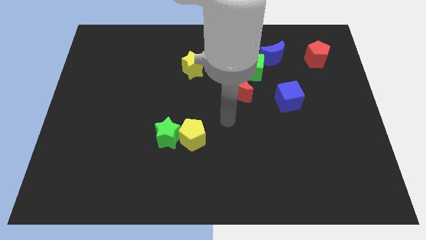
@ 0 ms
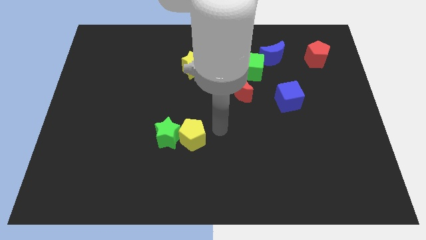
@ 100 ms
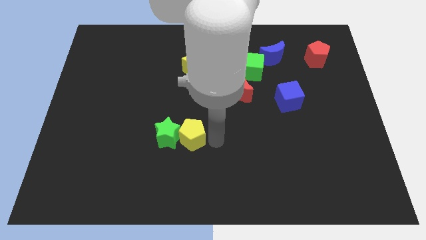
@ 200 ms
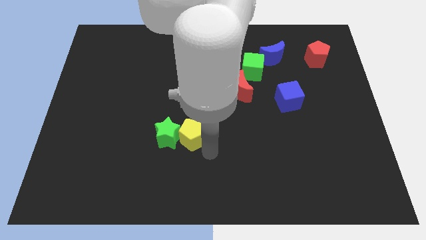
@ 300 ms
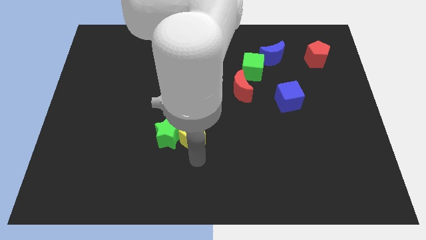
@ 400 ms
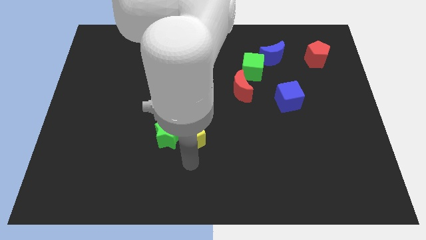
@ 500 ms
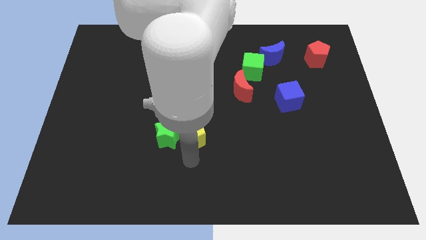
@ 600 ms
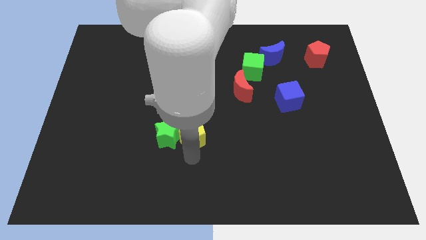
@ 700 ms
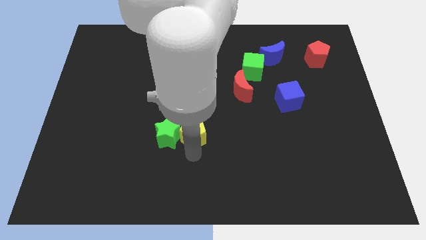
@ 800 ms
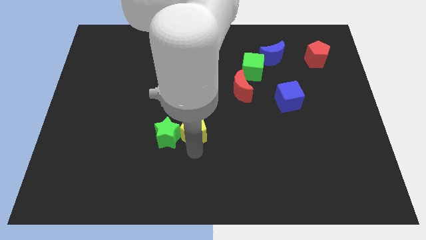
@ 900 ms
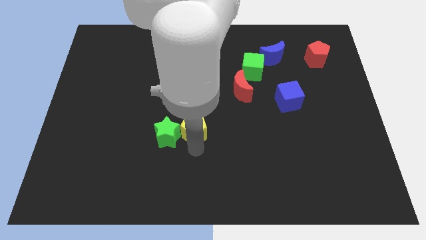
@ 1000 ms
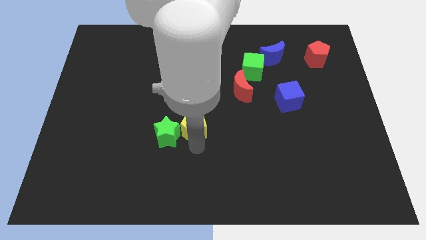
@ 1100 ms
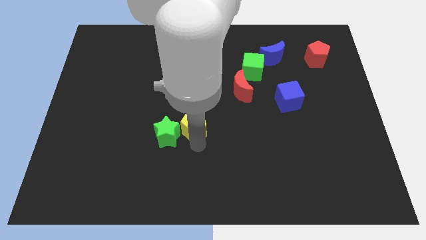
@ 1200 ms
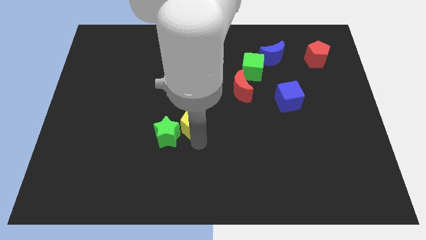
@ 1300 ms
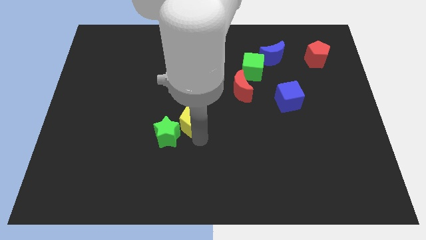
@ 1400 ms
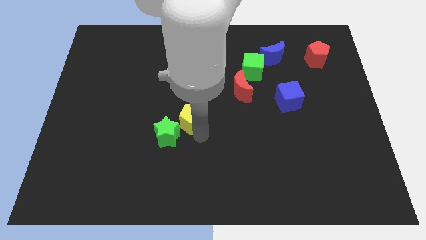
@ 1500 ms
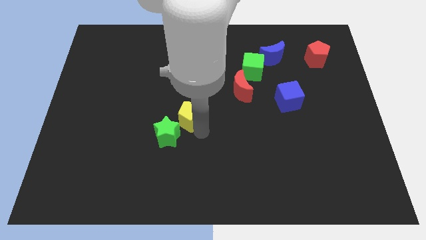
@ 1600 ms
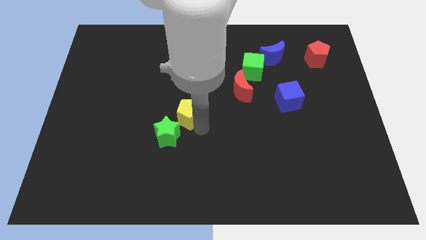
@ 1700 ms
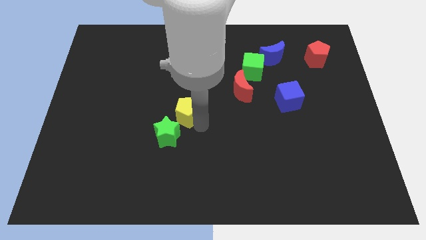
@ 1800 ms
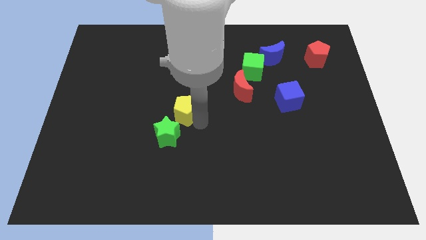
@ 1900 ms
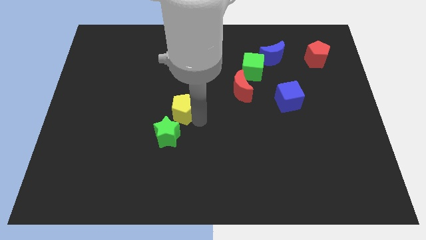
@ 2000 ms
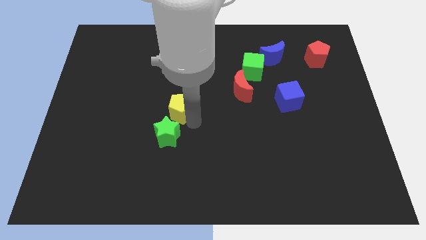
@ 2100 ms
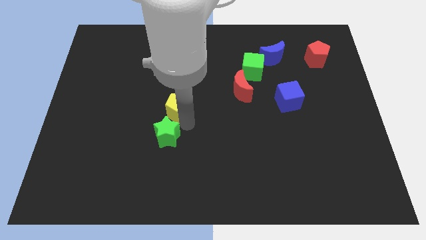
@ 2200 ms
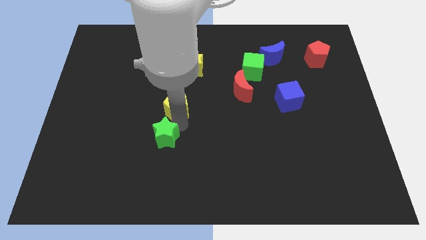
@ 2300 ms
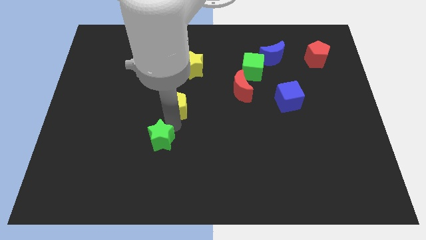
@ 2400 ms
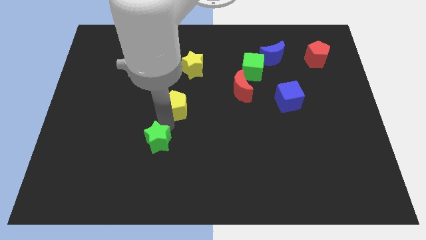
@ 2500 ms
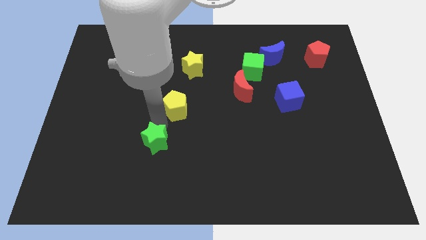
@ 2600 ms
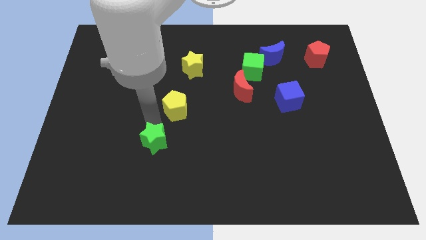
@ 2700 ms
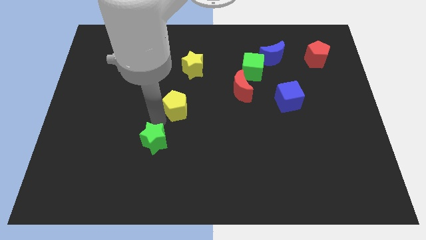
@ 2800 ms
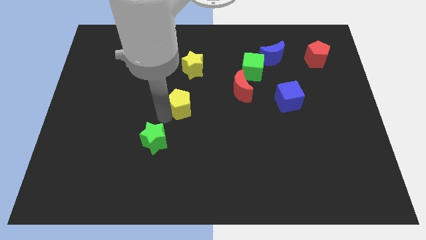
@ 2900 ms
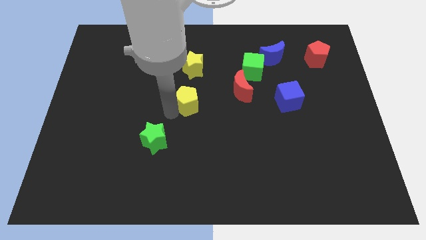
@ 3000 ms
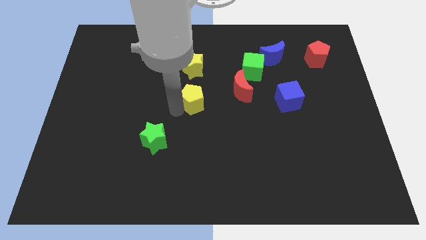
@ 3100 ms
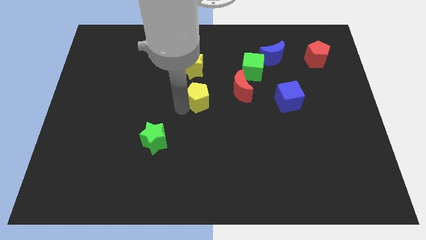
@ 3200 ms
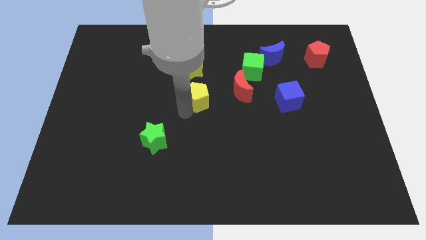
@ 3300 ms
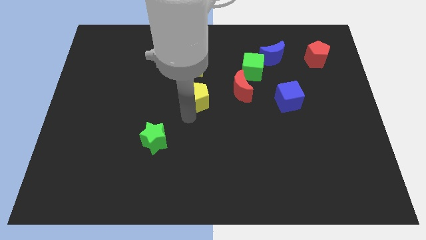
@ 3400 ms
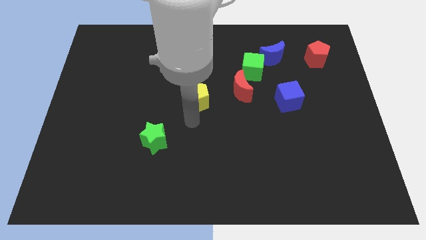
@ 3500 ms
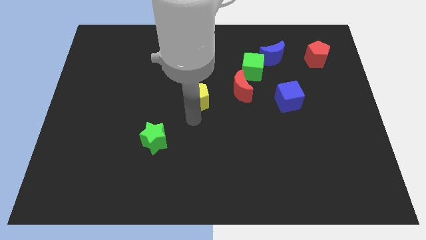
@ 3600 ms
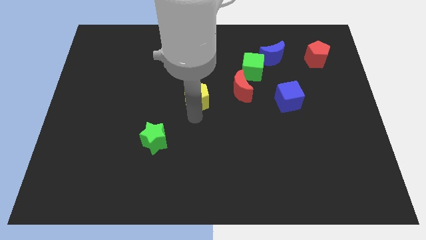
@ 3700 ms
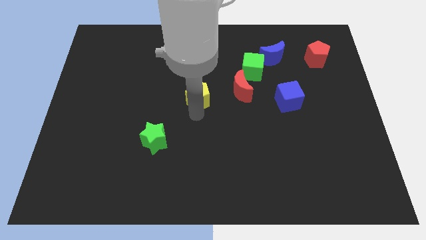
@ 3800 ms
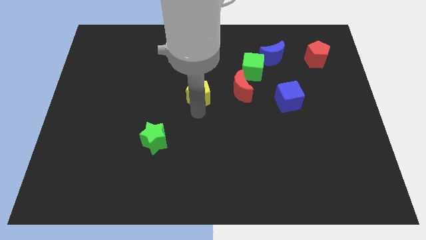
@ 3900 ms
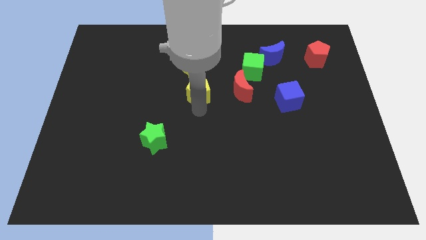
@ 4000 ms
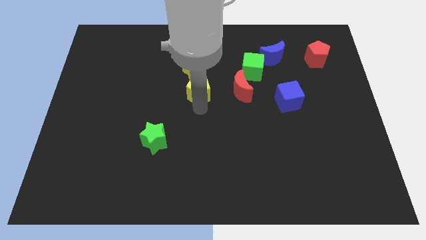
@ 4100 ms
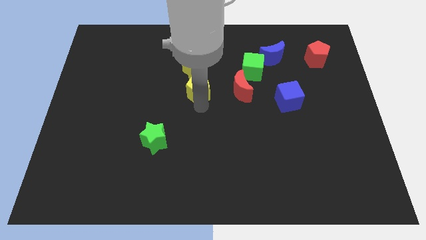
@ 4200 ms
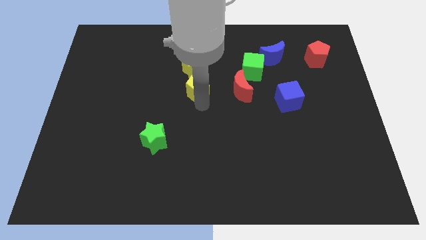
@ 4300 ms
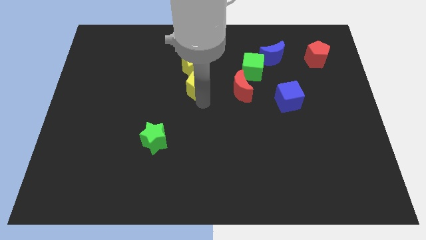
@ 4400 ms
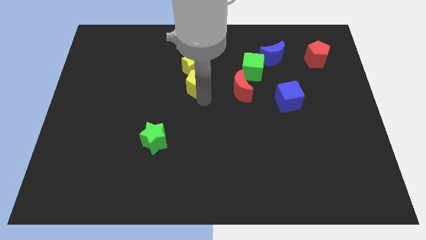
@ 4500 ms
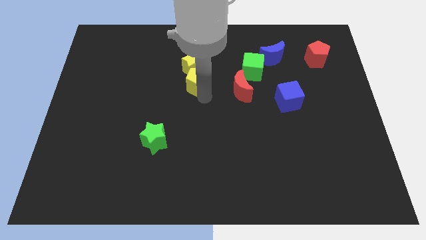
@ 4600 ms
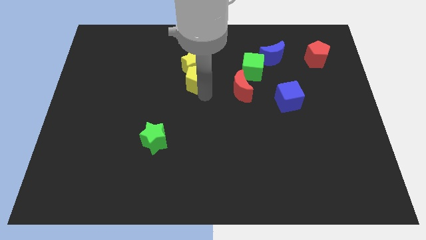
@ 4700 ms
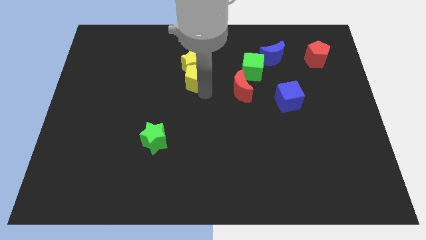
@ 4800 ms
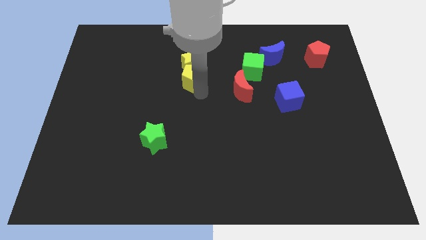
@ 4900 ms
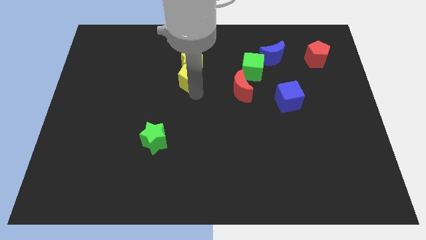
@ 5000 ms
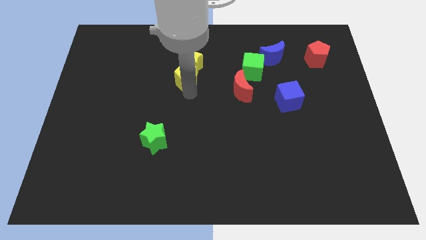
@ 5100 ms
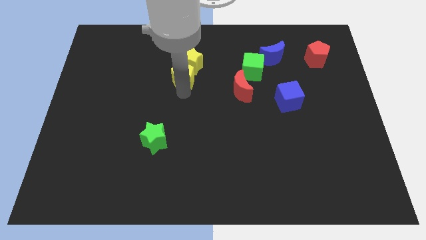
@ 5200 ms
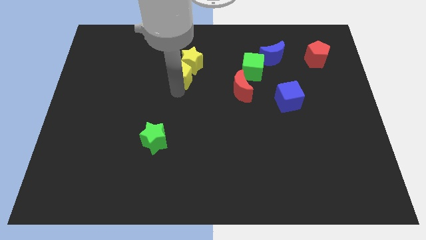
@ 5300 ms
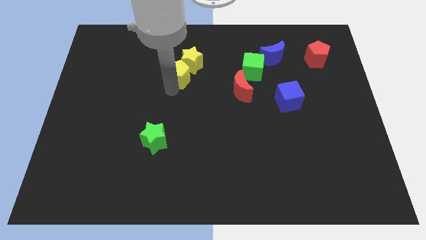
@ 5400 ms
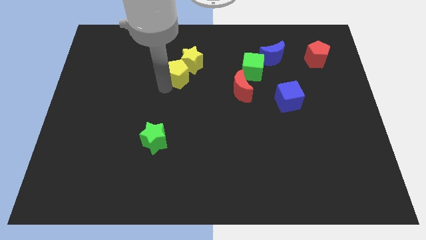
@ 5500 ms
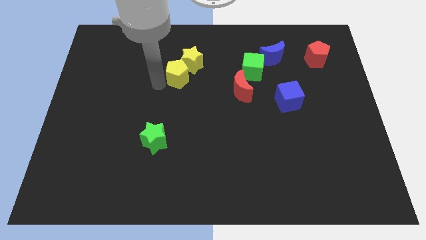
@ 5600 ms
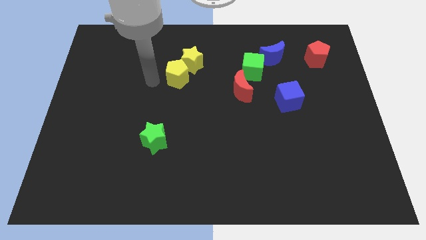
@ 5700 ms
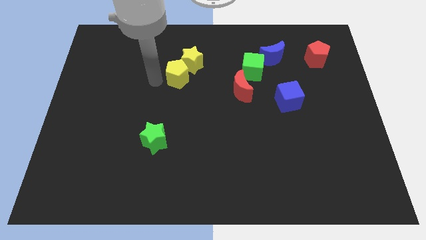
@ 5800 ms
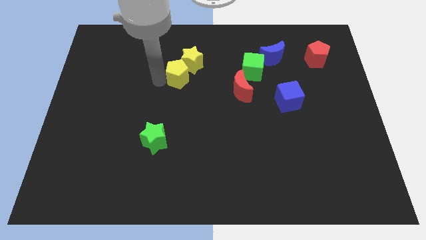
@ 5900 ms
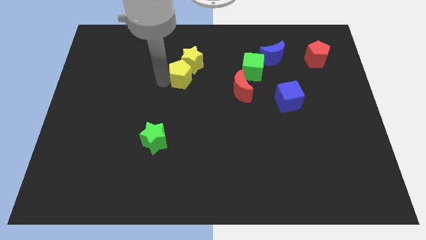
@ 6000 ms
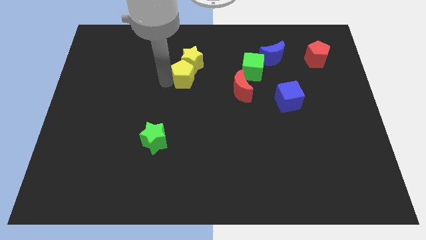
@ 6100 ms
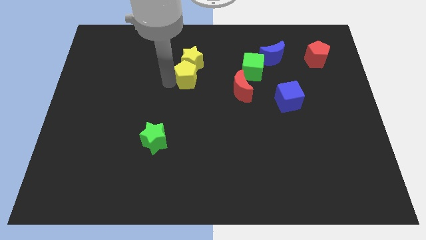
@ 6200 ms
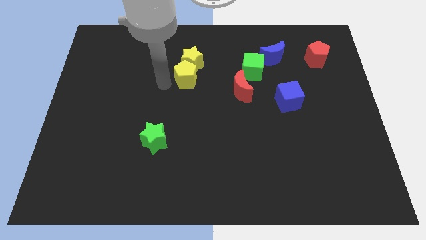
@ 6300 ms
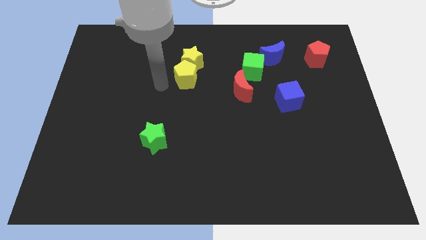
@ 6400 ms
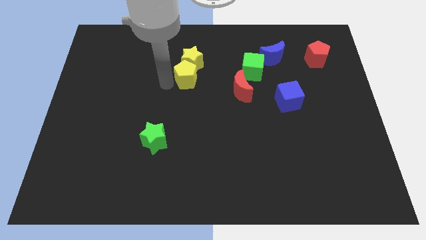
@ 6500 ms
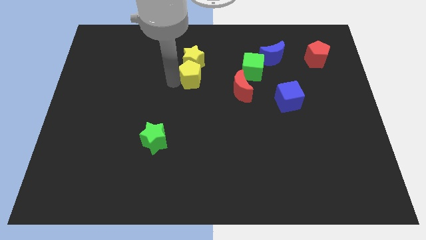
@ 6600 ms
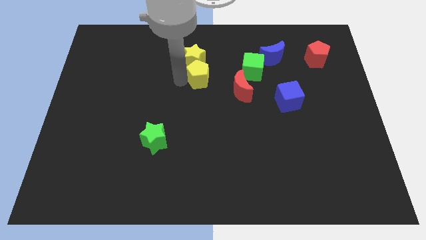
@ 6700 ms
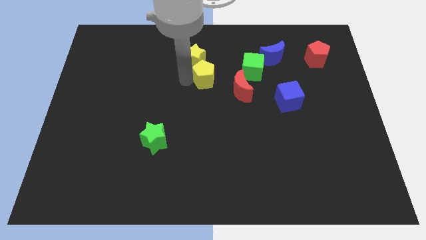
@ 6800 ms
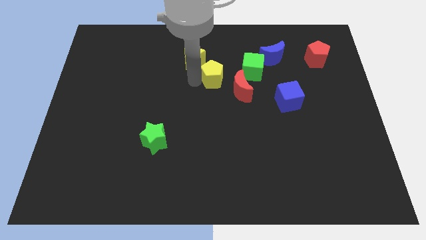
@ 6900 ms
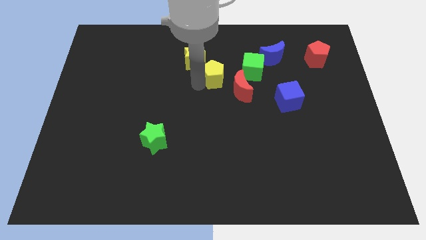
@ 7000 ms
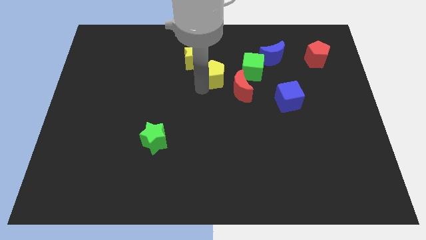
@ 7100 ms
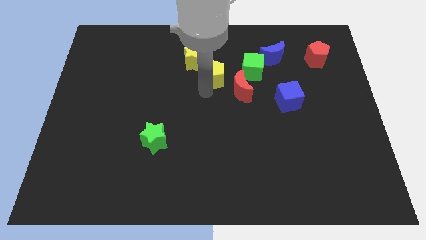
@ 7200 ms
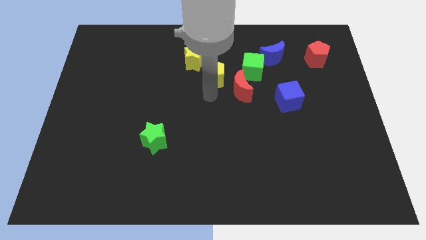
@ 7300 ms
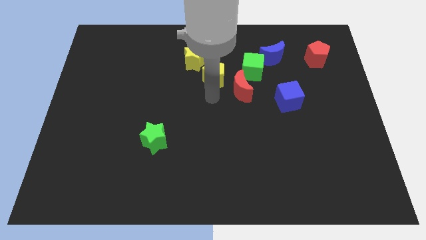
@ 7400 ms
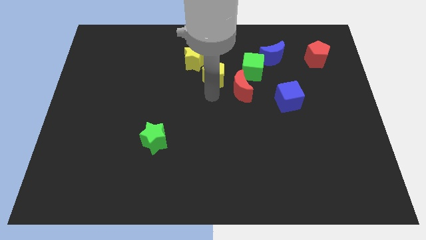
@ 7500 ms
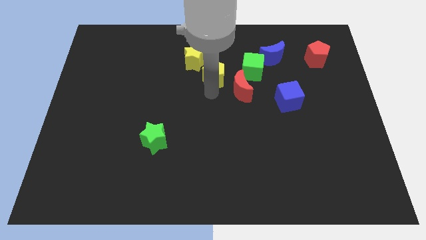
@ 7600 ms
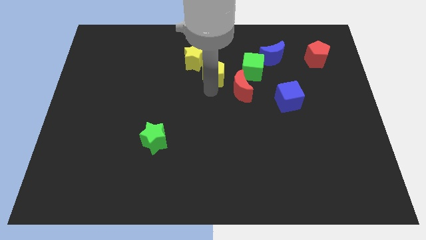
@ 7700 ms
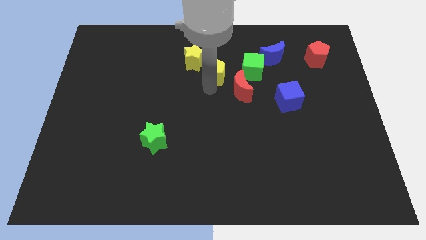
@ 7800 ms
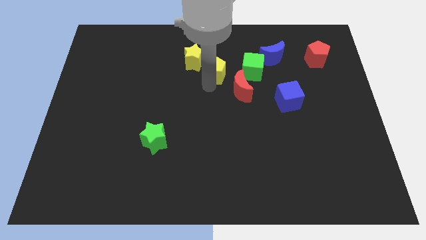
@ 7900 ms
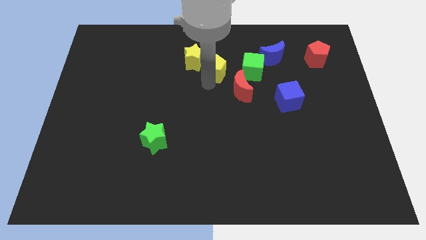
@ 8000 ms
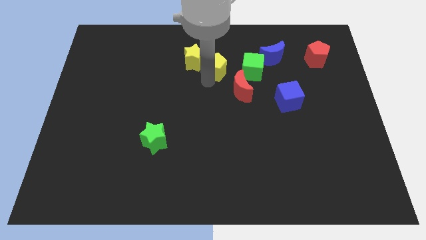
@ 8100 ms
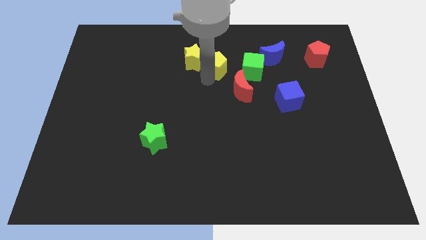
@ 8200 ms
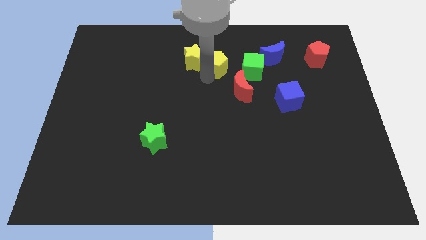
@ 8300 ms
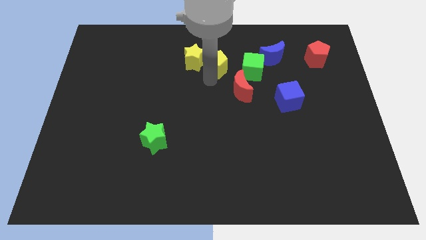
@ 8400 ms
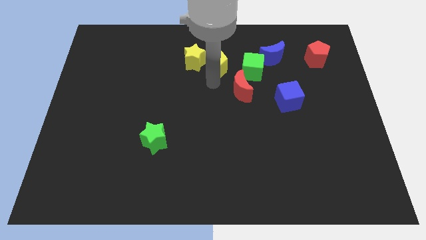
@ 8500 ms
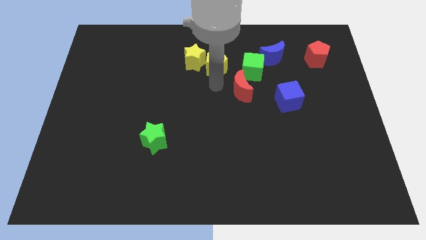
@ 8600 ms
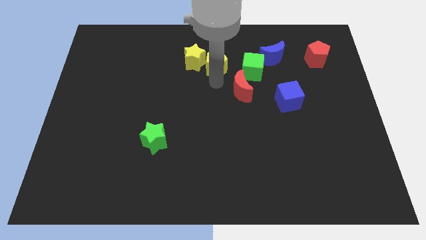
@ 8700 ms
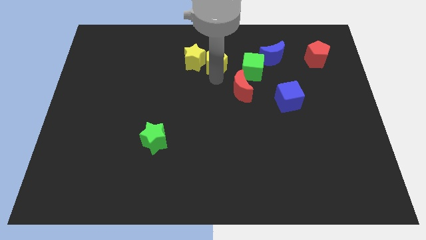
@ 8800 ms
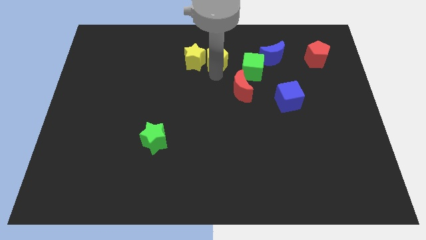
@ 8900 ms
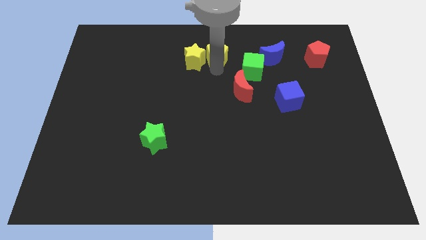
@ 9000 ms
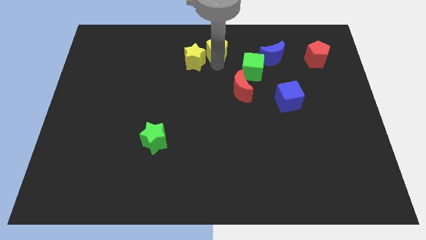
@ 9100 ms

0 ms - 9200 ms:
move the yellow pentagon to the top
